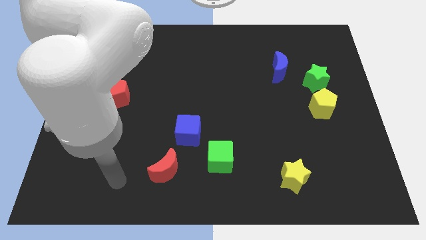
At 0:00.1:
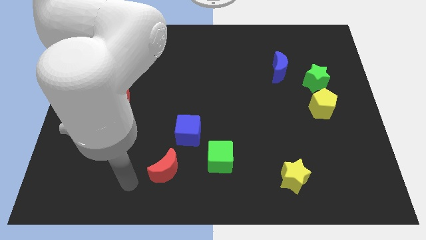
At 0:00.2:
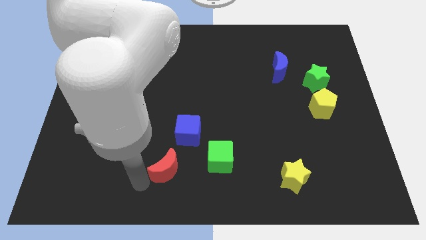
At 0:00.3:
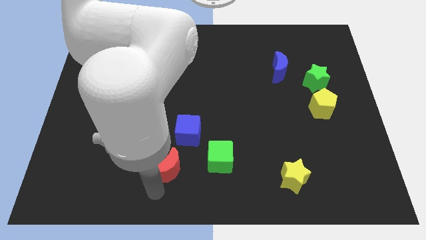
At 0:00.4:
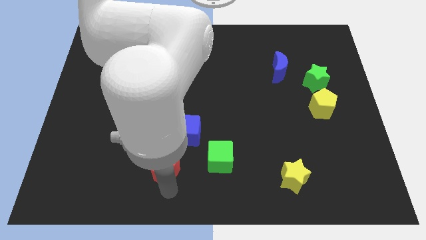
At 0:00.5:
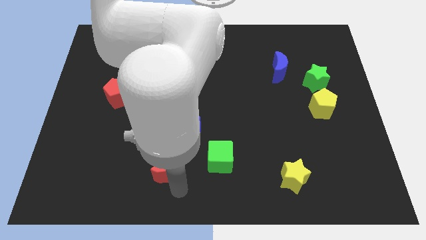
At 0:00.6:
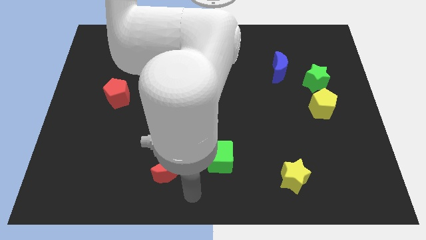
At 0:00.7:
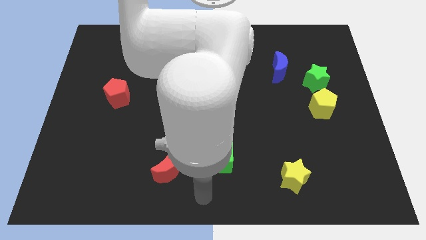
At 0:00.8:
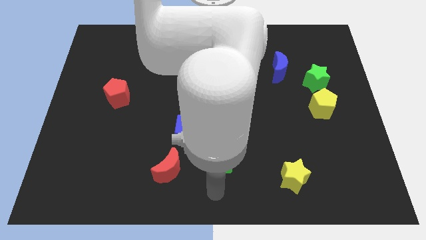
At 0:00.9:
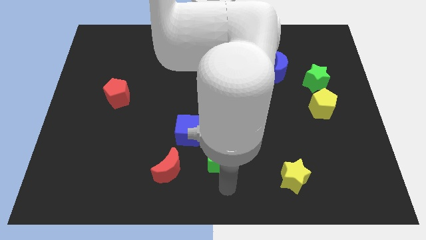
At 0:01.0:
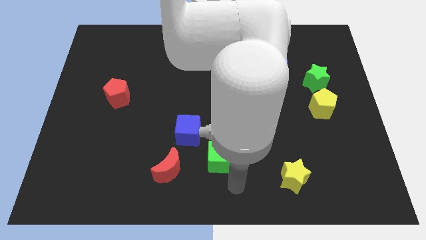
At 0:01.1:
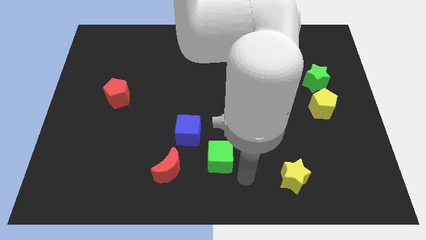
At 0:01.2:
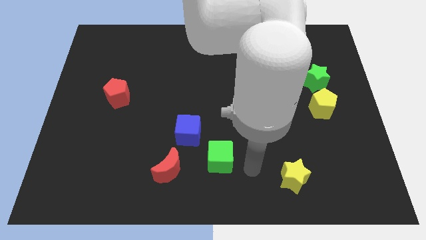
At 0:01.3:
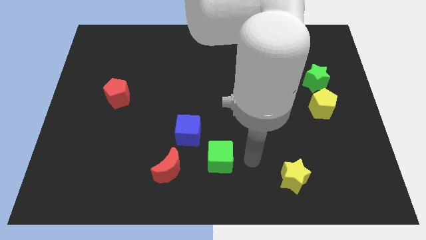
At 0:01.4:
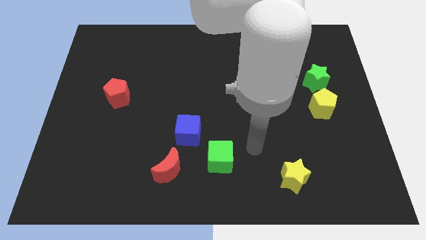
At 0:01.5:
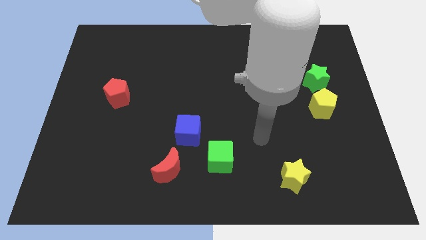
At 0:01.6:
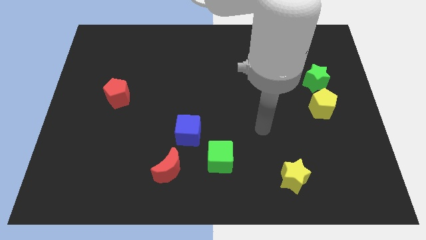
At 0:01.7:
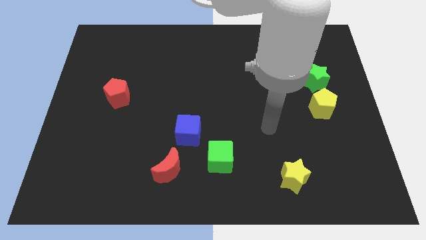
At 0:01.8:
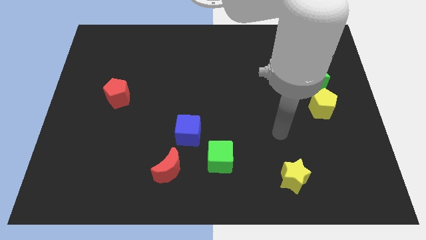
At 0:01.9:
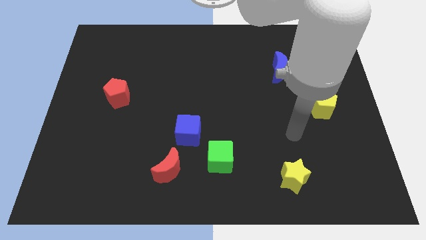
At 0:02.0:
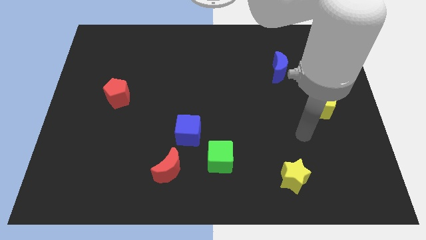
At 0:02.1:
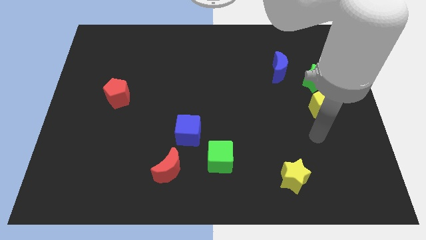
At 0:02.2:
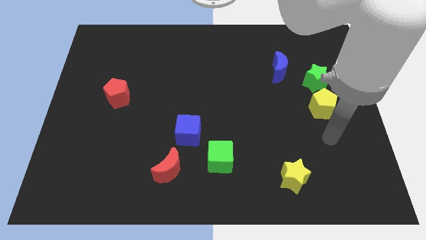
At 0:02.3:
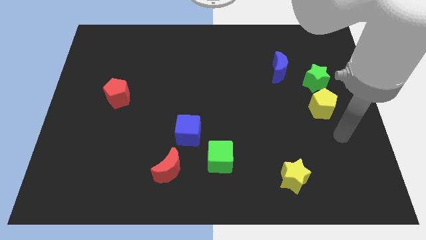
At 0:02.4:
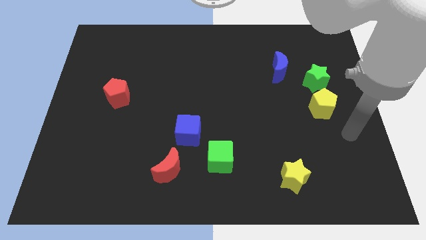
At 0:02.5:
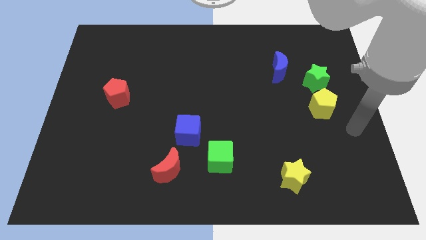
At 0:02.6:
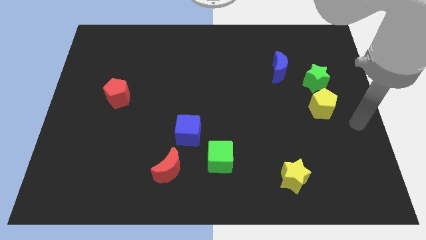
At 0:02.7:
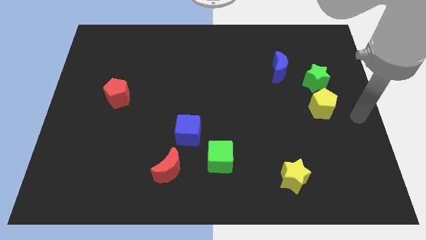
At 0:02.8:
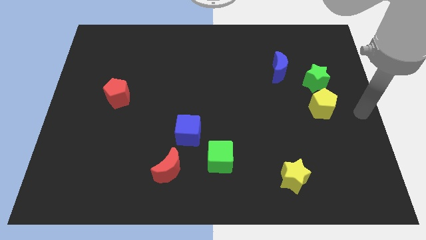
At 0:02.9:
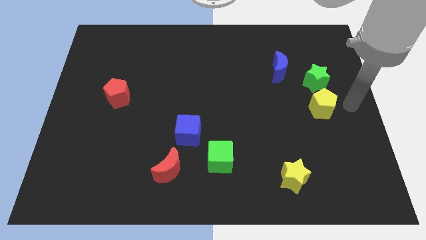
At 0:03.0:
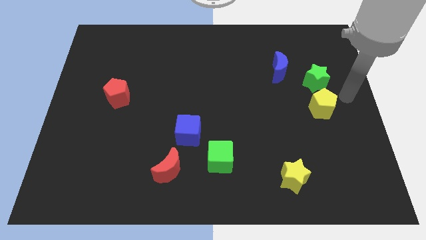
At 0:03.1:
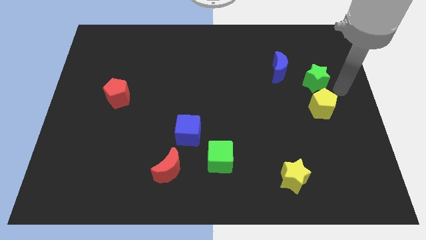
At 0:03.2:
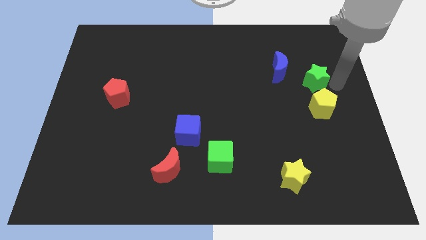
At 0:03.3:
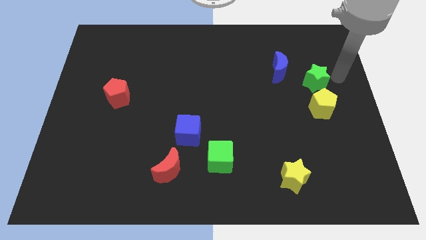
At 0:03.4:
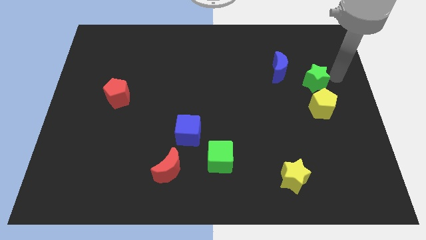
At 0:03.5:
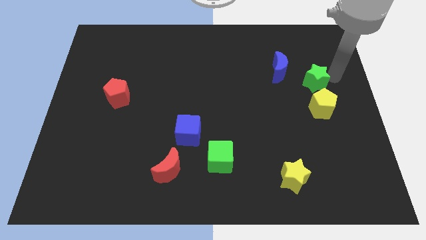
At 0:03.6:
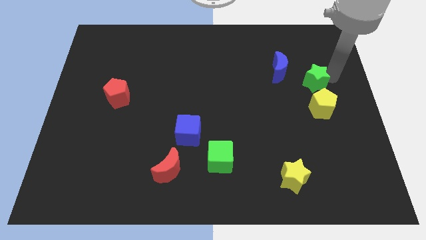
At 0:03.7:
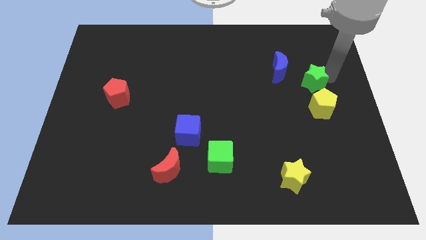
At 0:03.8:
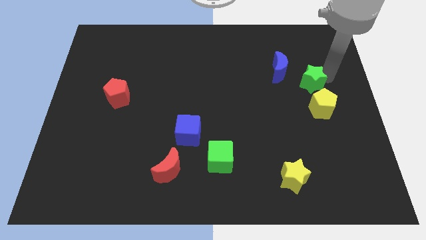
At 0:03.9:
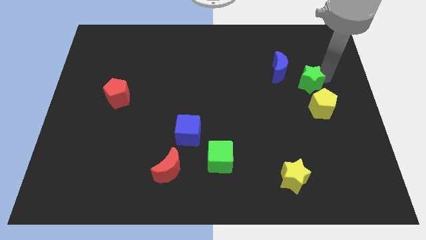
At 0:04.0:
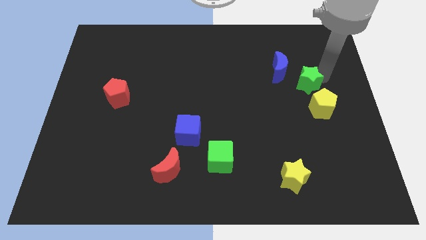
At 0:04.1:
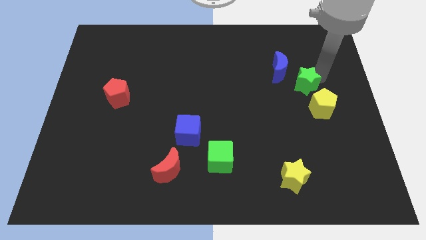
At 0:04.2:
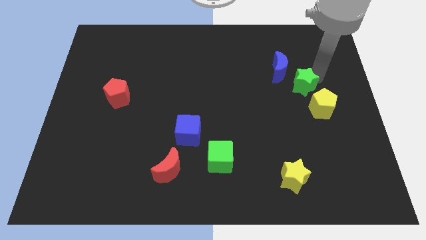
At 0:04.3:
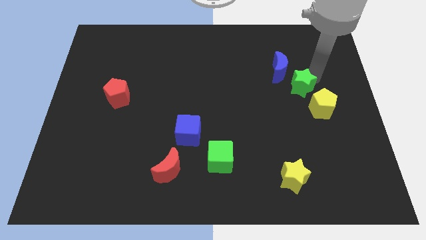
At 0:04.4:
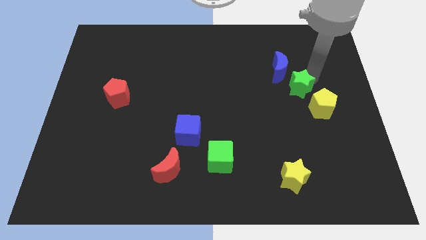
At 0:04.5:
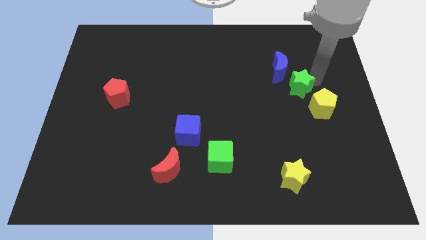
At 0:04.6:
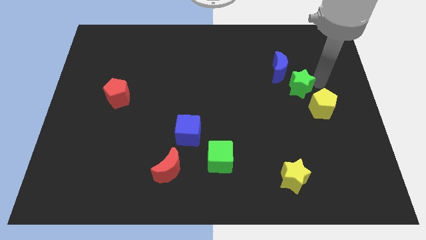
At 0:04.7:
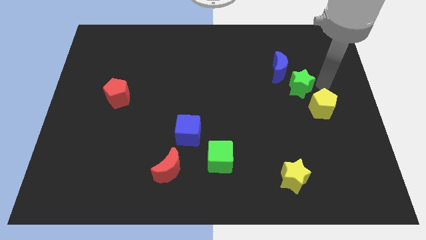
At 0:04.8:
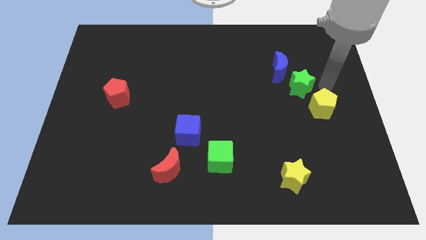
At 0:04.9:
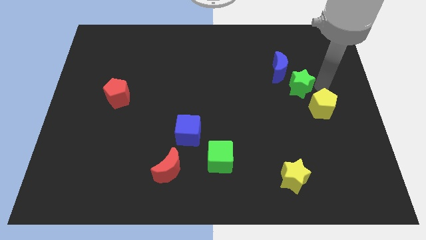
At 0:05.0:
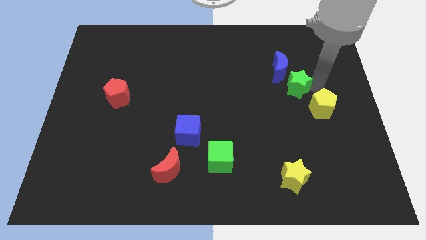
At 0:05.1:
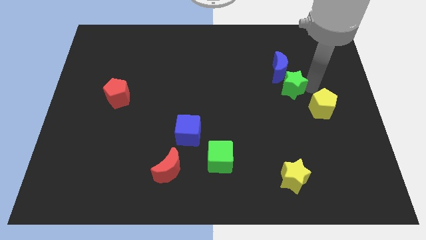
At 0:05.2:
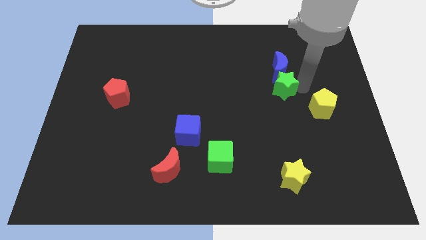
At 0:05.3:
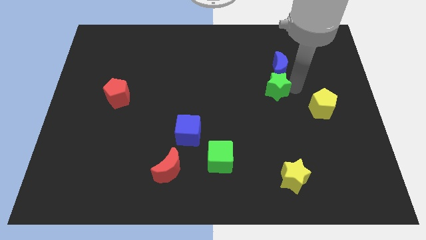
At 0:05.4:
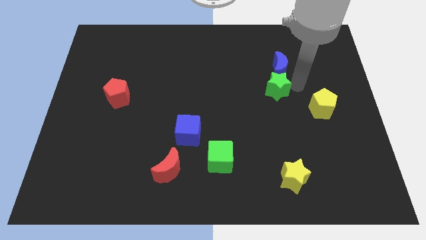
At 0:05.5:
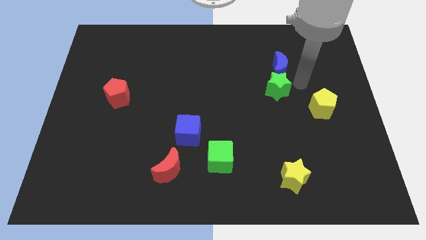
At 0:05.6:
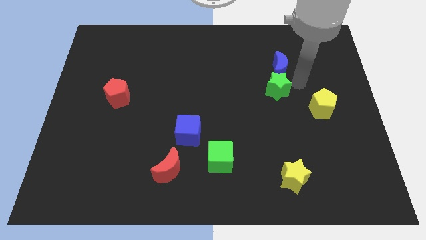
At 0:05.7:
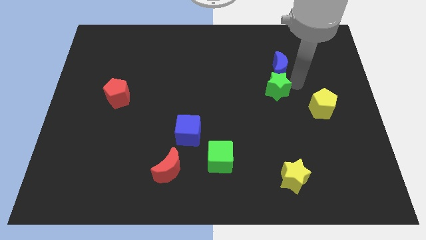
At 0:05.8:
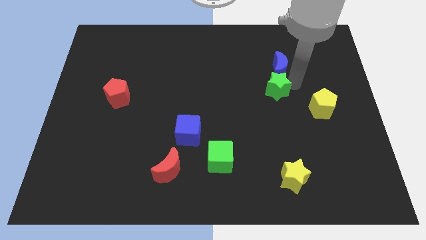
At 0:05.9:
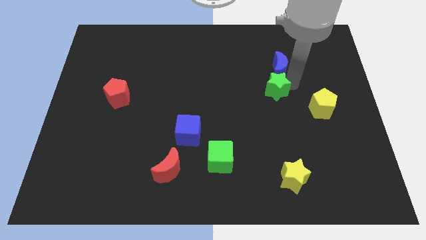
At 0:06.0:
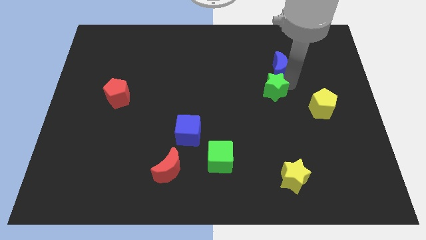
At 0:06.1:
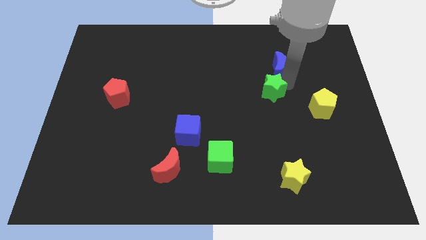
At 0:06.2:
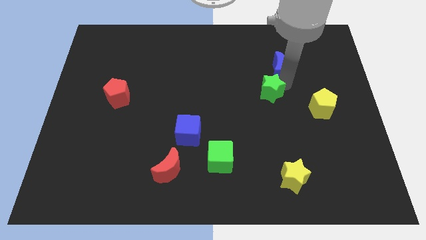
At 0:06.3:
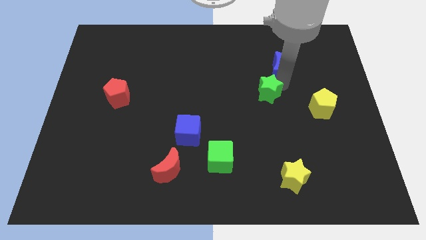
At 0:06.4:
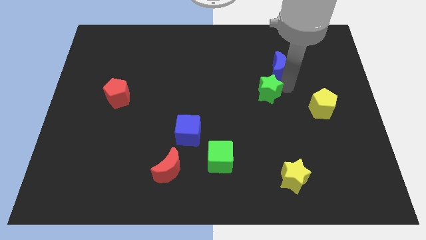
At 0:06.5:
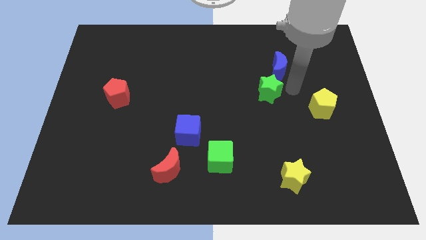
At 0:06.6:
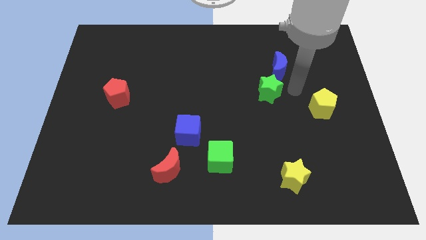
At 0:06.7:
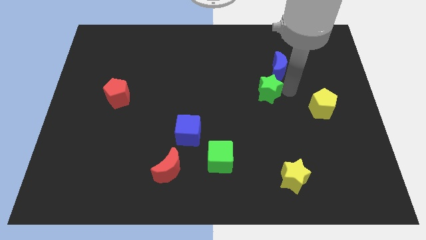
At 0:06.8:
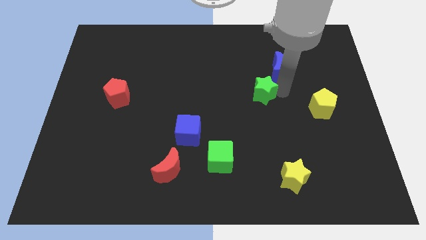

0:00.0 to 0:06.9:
move the green star to the center

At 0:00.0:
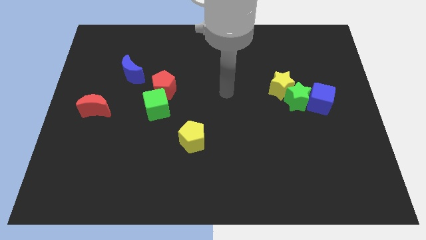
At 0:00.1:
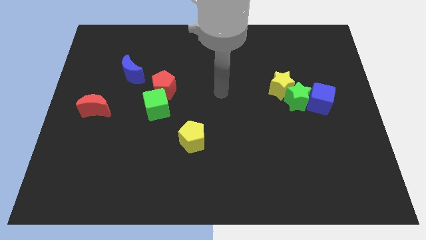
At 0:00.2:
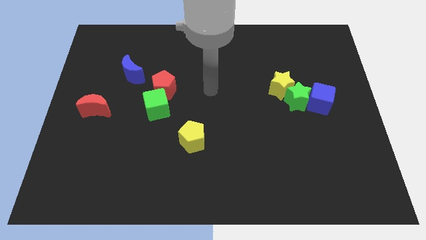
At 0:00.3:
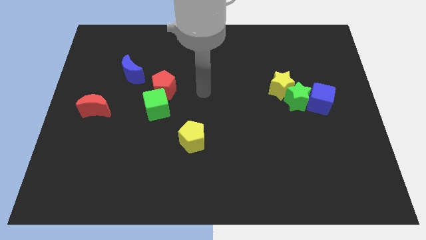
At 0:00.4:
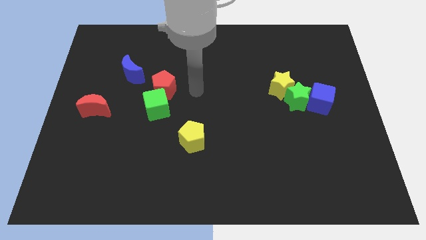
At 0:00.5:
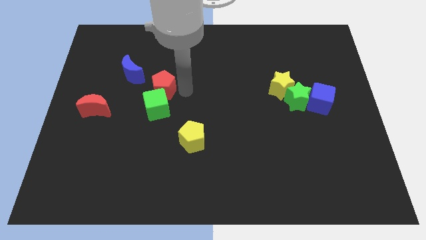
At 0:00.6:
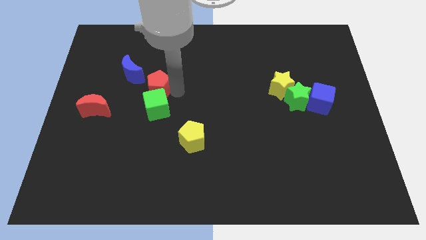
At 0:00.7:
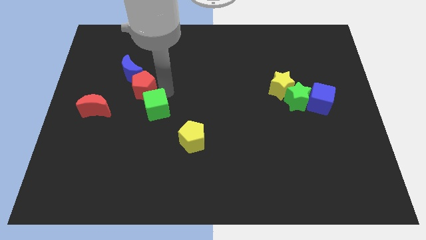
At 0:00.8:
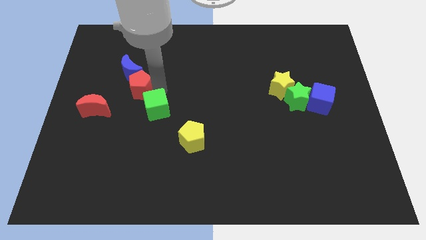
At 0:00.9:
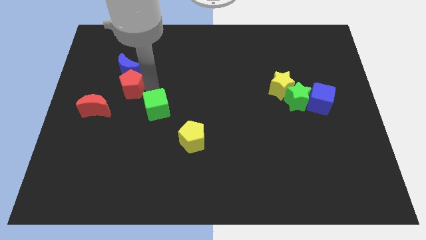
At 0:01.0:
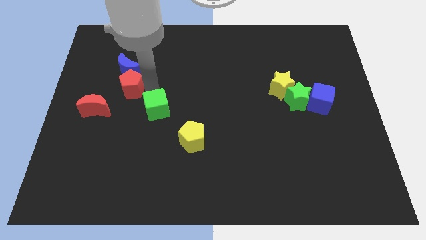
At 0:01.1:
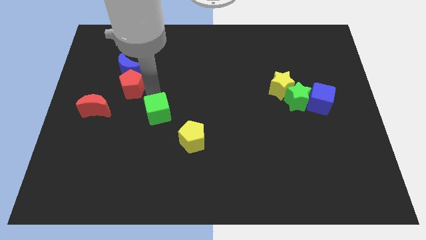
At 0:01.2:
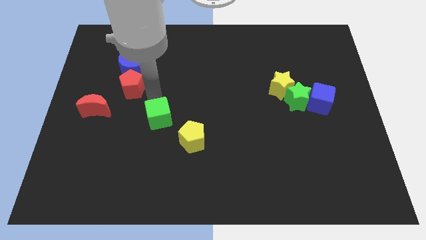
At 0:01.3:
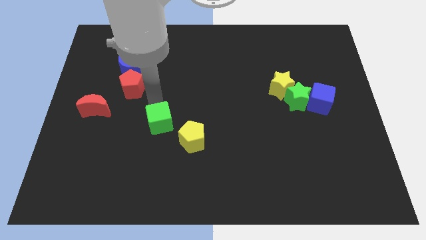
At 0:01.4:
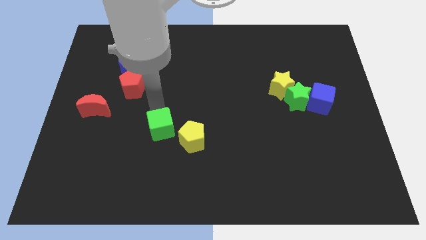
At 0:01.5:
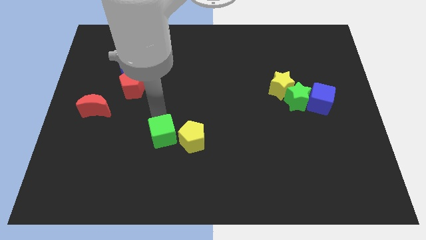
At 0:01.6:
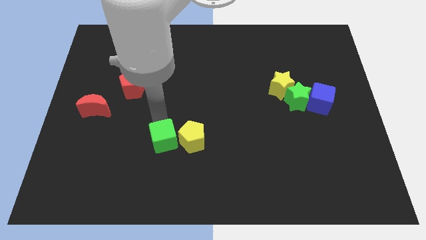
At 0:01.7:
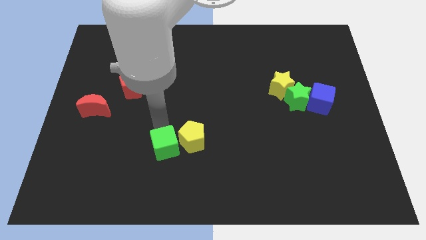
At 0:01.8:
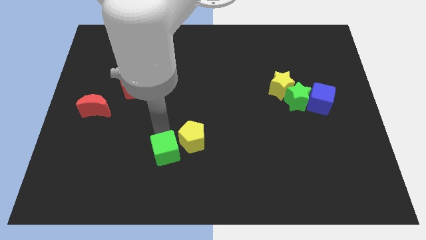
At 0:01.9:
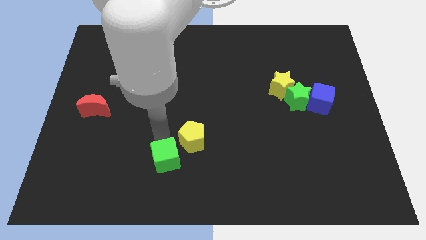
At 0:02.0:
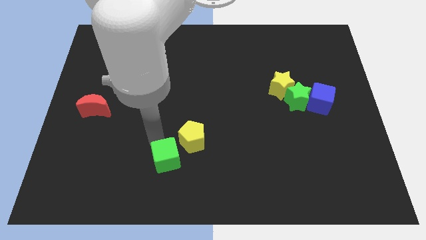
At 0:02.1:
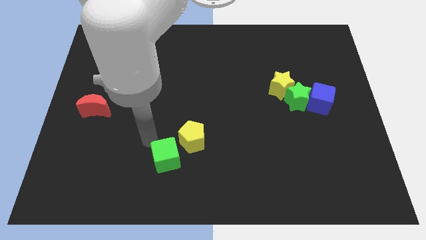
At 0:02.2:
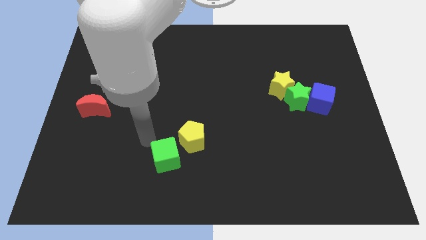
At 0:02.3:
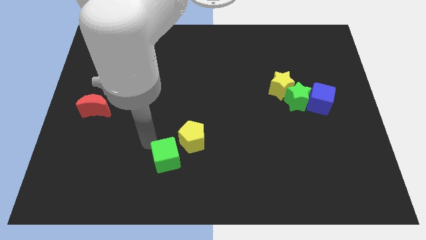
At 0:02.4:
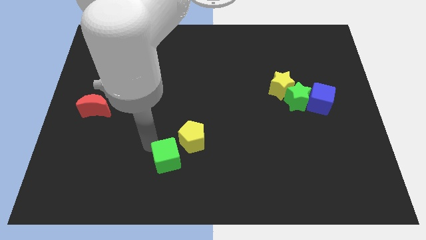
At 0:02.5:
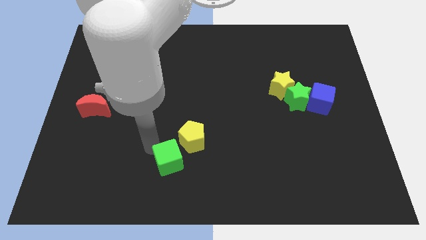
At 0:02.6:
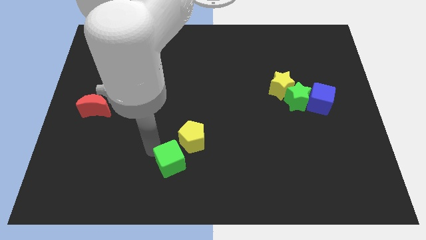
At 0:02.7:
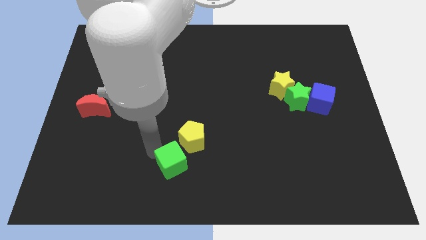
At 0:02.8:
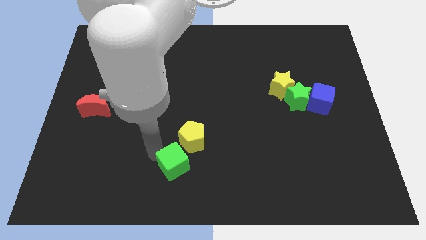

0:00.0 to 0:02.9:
put the green cube to the bottom
